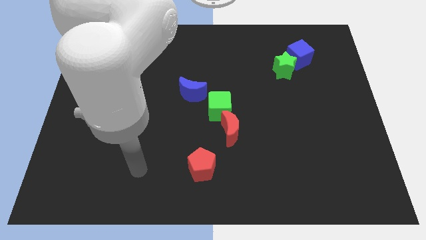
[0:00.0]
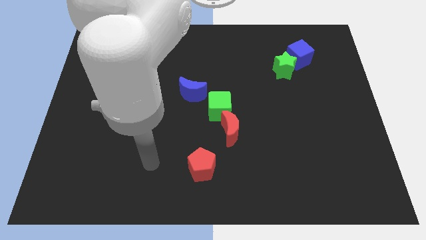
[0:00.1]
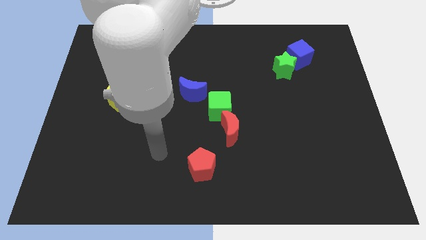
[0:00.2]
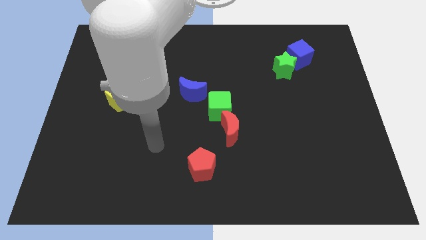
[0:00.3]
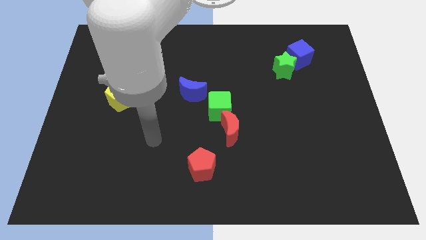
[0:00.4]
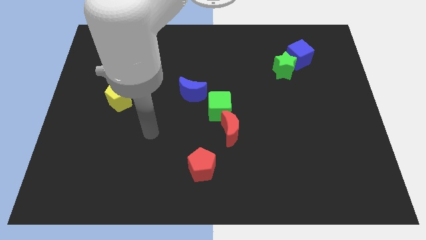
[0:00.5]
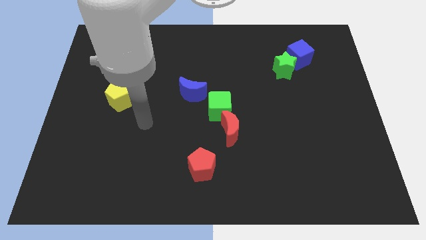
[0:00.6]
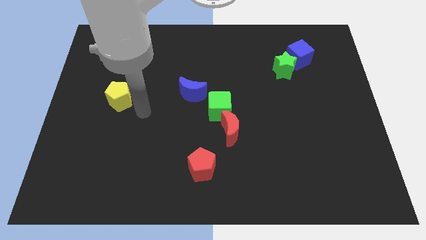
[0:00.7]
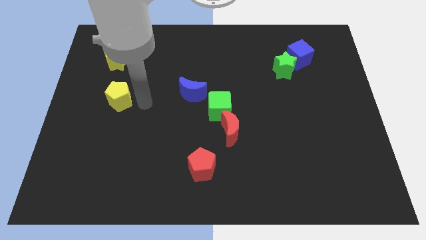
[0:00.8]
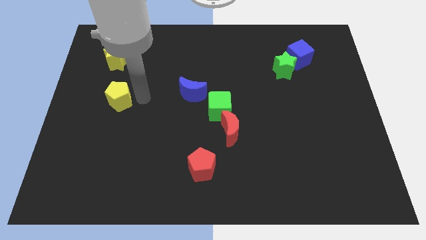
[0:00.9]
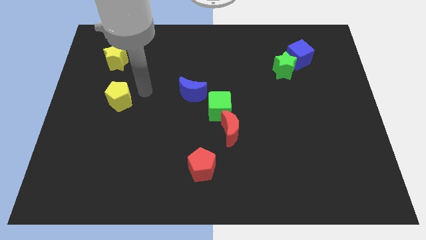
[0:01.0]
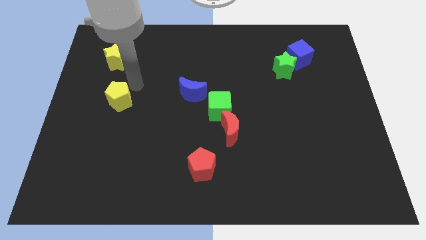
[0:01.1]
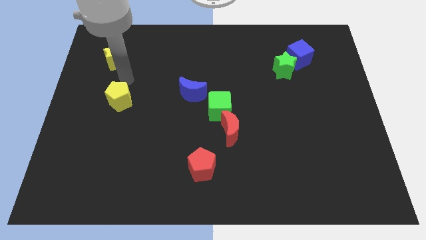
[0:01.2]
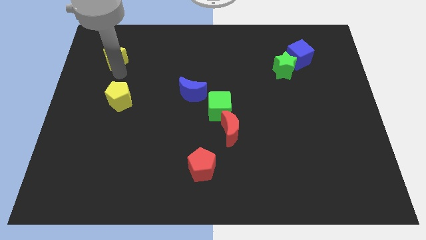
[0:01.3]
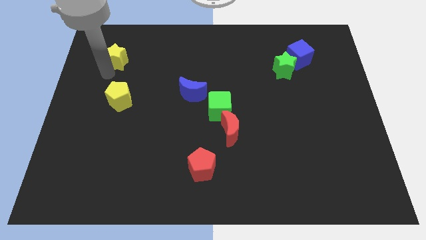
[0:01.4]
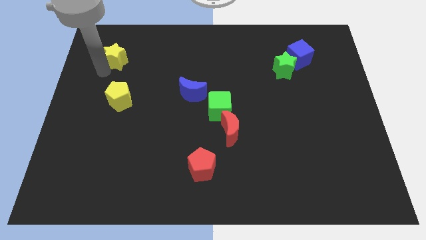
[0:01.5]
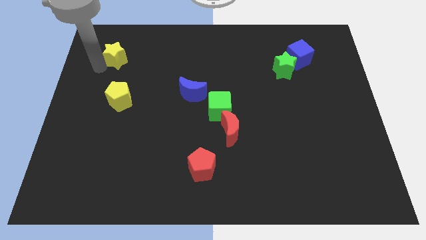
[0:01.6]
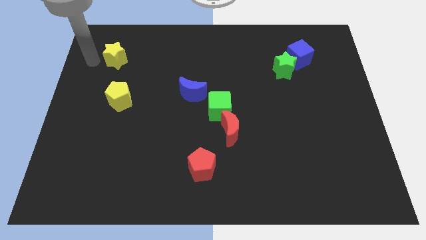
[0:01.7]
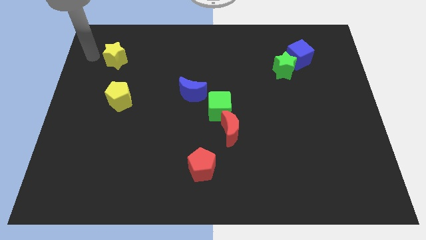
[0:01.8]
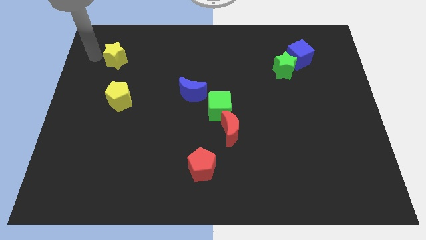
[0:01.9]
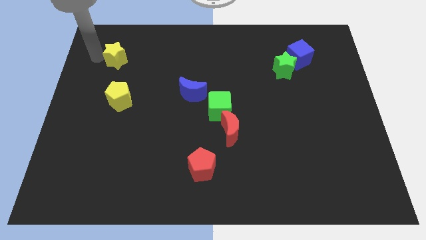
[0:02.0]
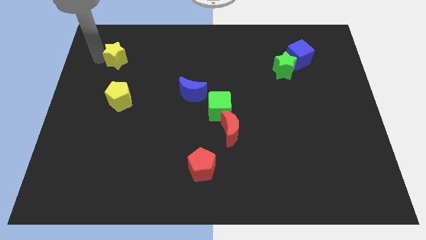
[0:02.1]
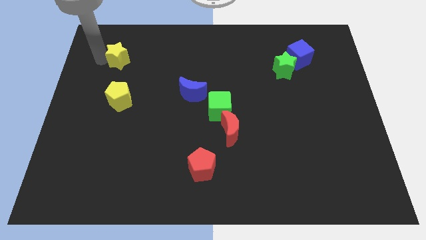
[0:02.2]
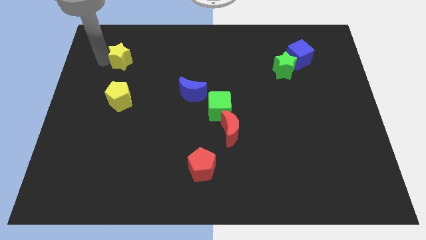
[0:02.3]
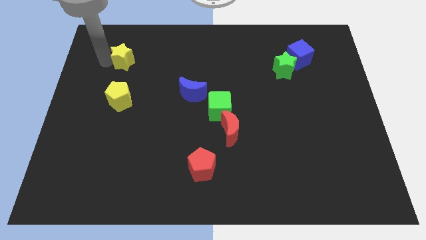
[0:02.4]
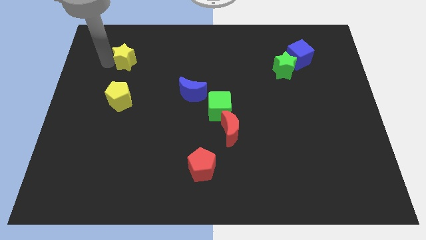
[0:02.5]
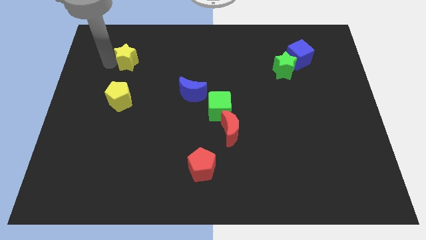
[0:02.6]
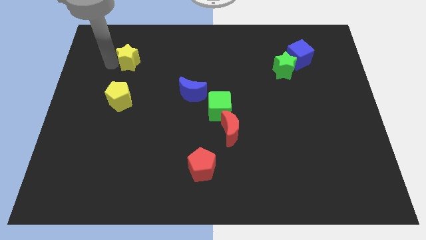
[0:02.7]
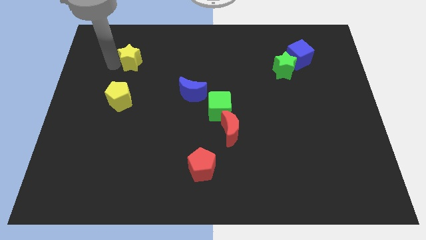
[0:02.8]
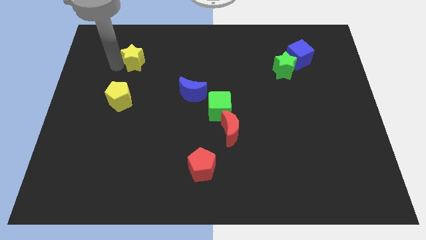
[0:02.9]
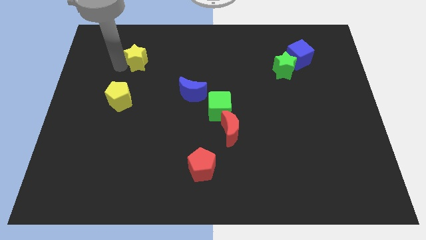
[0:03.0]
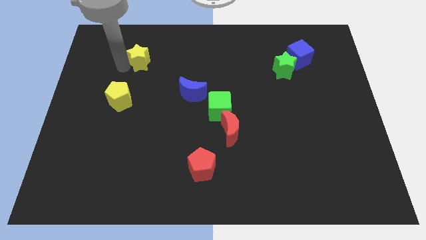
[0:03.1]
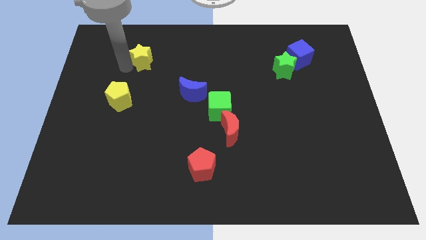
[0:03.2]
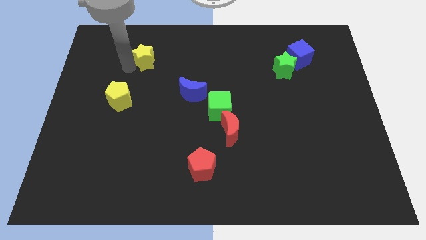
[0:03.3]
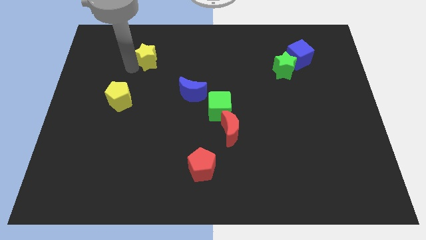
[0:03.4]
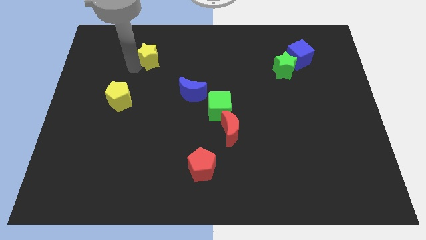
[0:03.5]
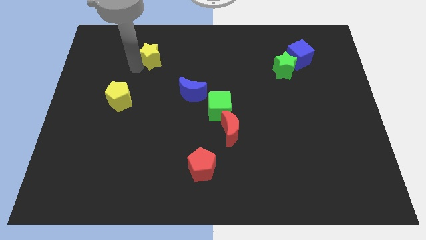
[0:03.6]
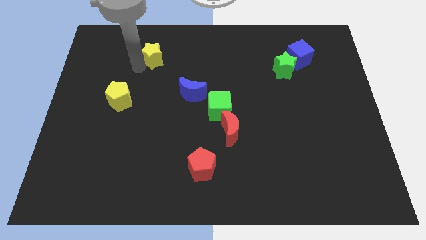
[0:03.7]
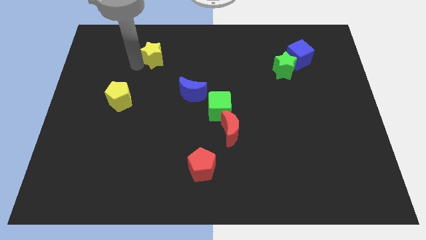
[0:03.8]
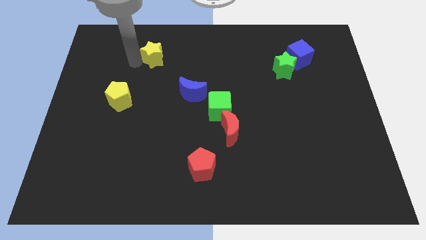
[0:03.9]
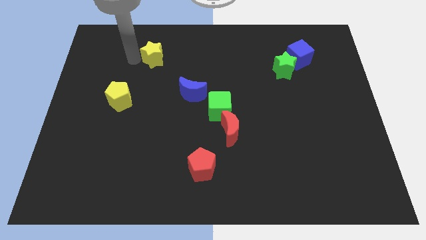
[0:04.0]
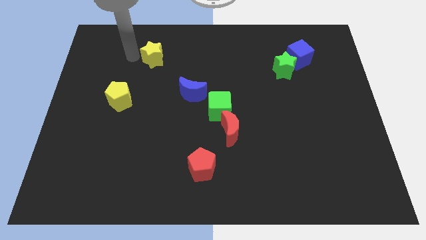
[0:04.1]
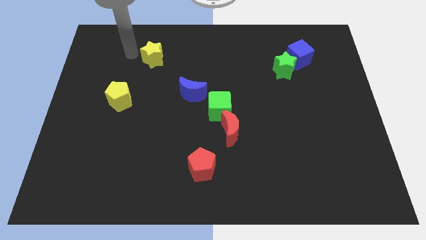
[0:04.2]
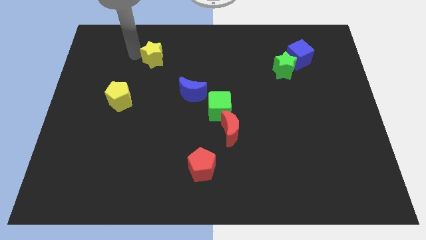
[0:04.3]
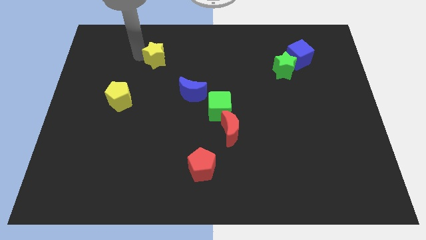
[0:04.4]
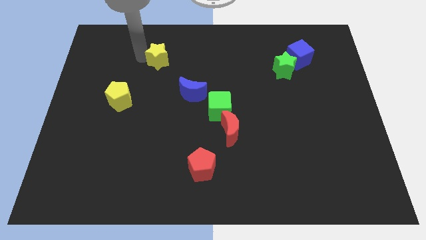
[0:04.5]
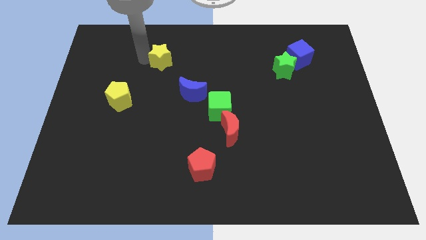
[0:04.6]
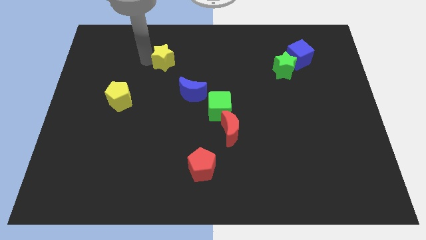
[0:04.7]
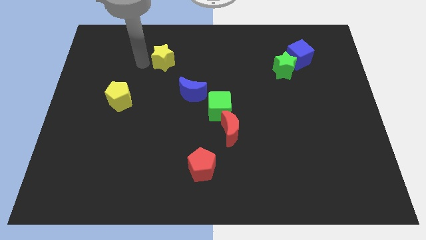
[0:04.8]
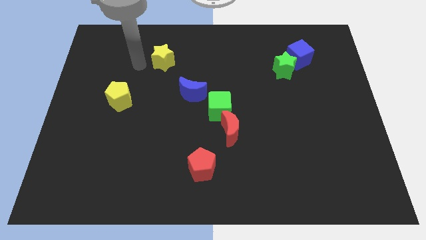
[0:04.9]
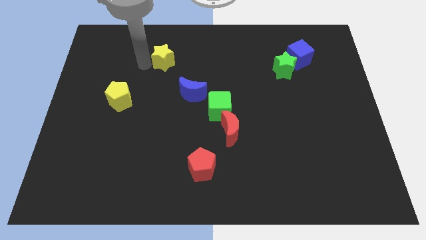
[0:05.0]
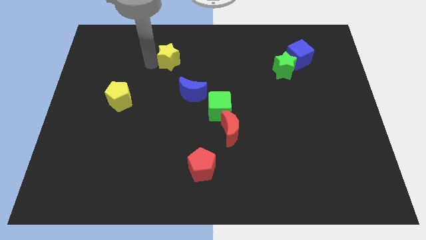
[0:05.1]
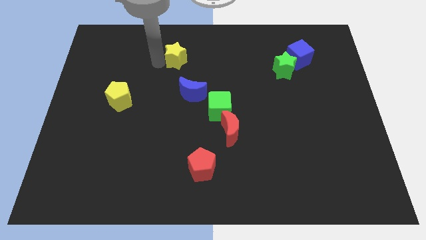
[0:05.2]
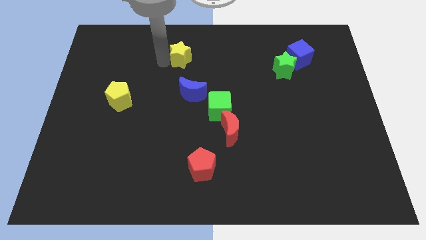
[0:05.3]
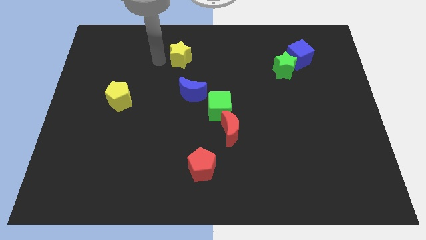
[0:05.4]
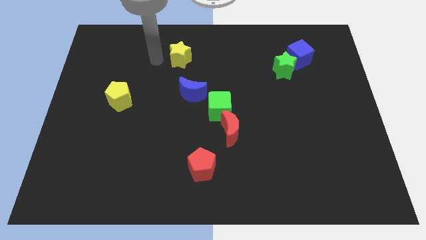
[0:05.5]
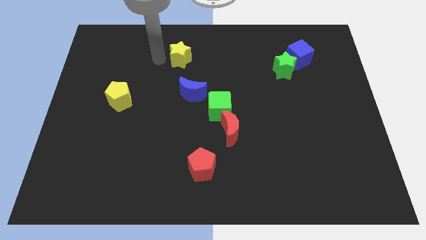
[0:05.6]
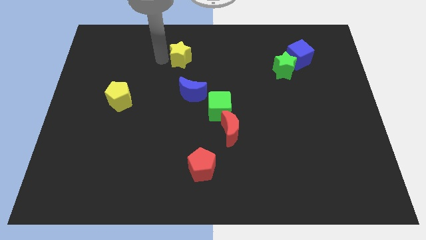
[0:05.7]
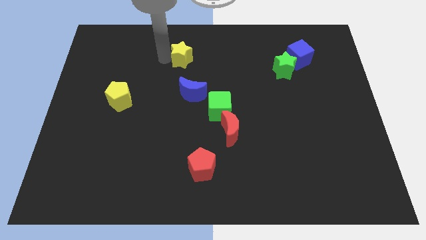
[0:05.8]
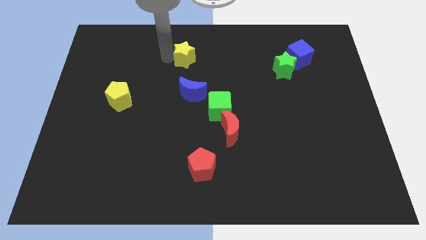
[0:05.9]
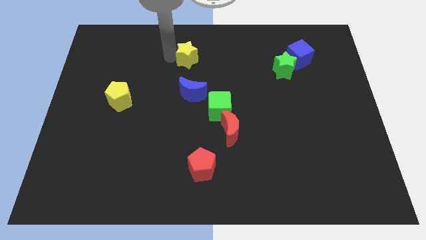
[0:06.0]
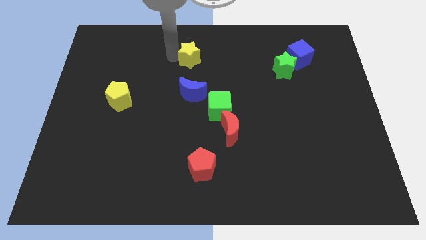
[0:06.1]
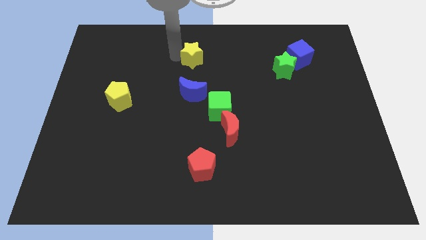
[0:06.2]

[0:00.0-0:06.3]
slide the yellow star right

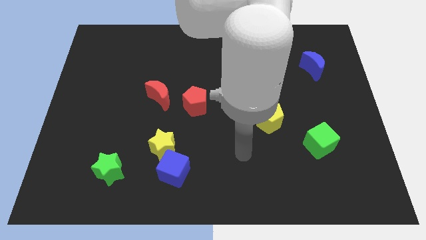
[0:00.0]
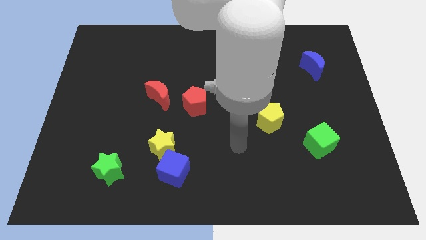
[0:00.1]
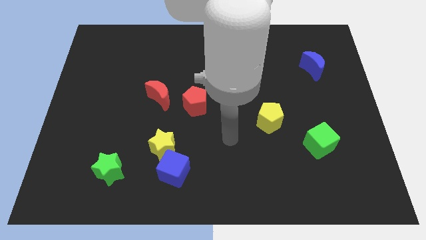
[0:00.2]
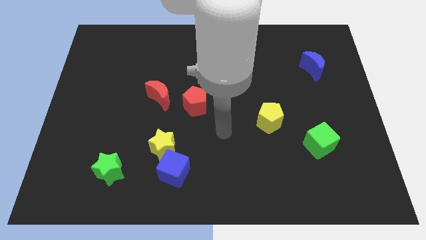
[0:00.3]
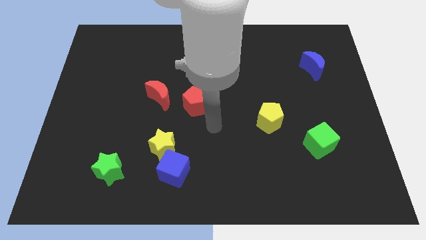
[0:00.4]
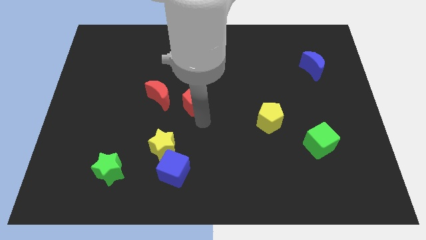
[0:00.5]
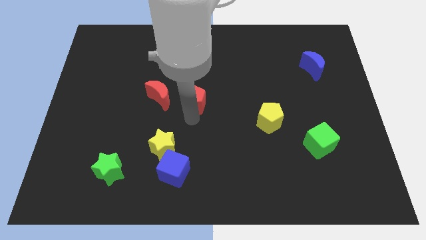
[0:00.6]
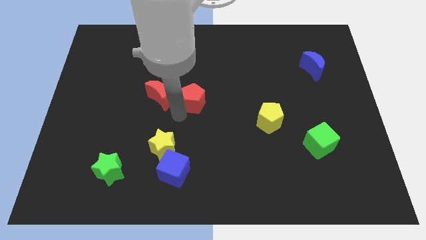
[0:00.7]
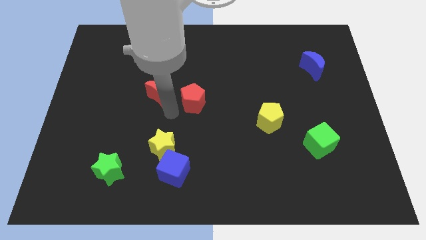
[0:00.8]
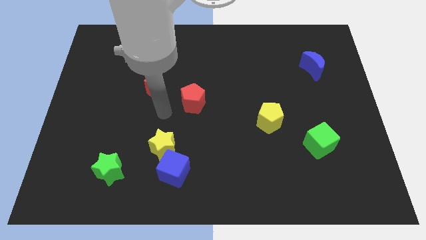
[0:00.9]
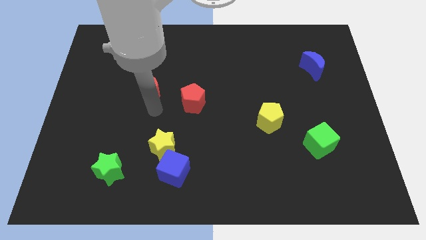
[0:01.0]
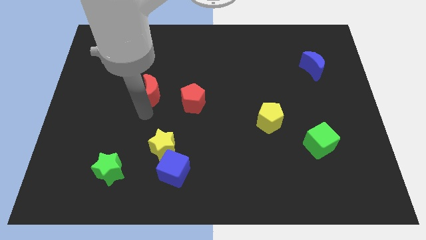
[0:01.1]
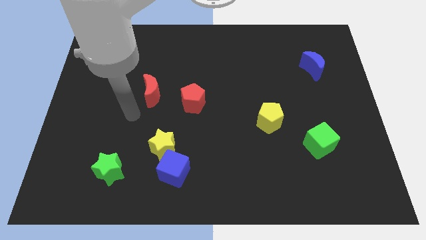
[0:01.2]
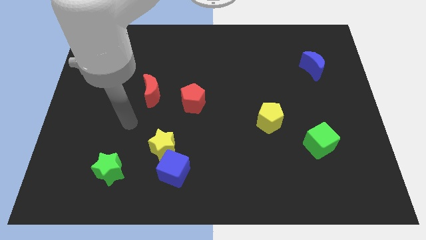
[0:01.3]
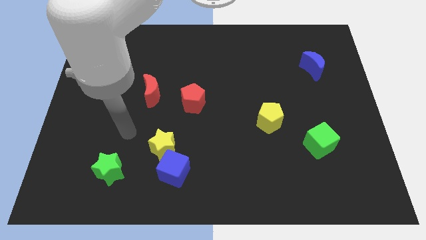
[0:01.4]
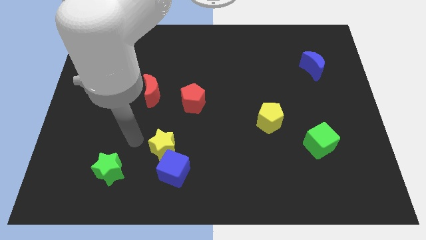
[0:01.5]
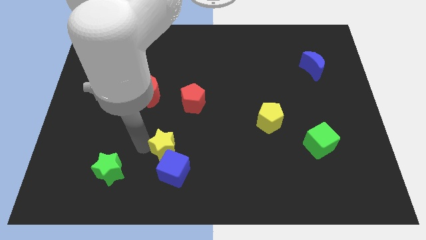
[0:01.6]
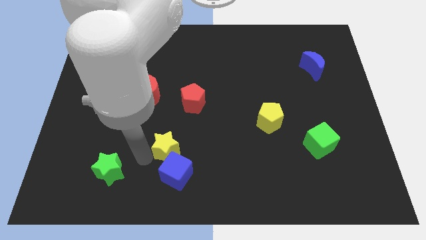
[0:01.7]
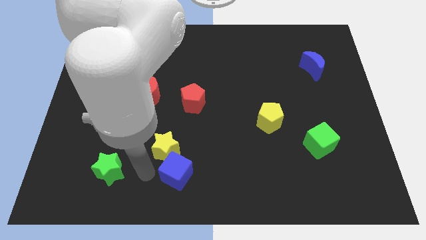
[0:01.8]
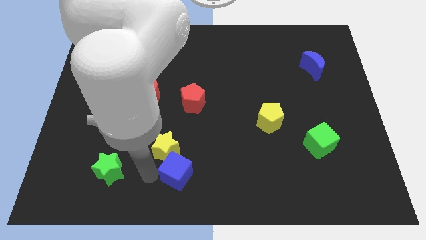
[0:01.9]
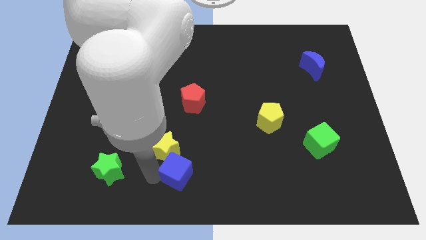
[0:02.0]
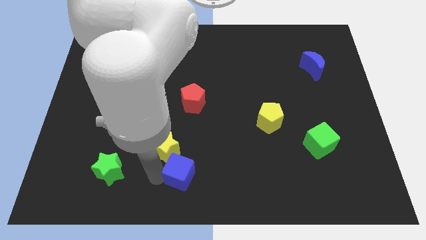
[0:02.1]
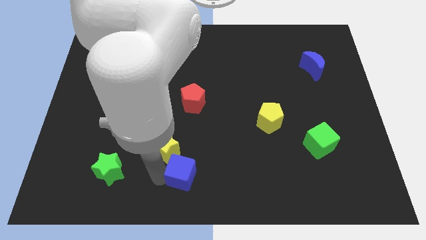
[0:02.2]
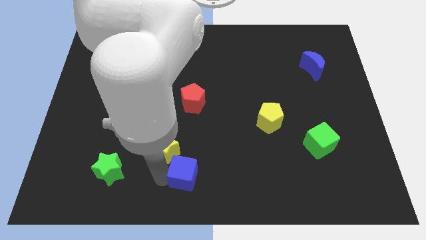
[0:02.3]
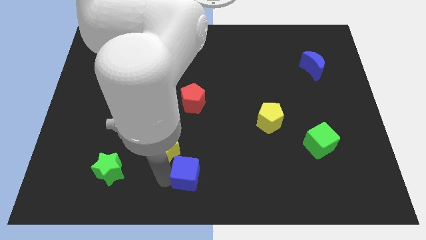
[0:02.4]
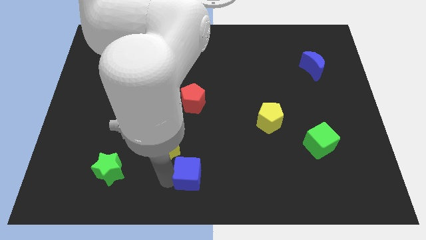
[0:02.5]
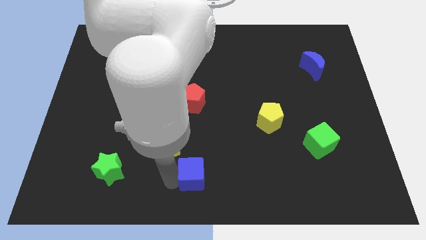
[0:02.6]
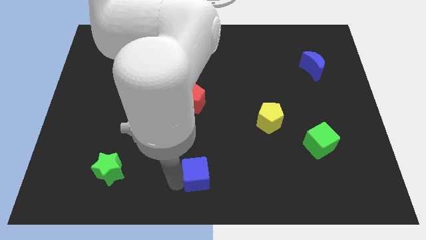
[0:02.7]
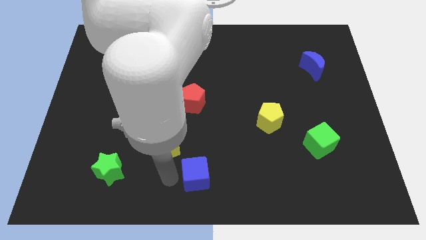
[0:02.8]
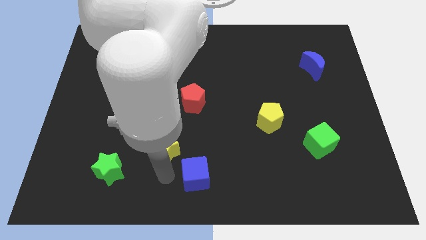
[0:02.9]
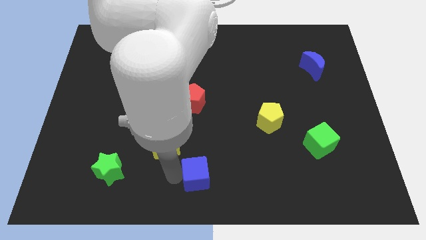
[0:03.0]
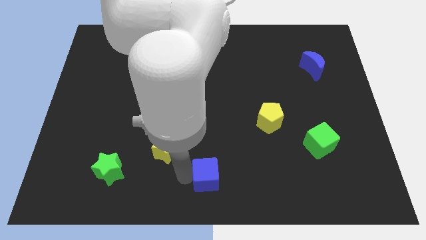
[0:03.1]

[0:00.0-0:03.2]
push the blue cube a bit to the right
